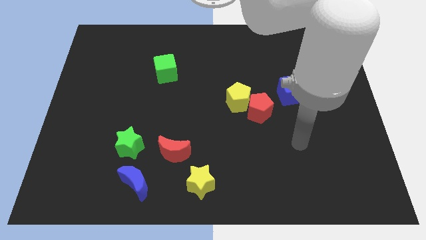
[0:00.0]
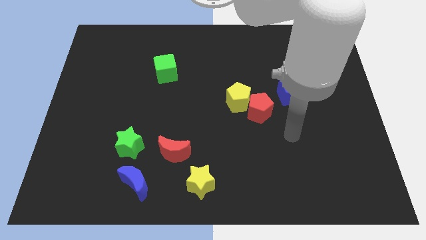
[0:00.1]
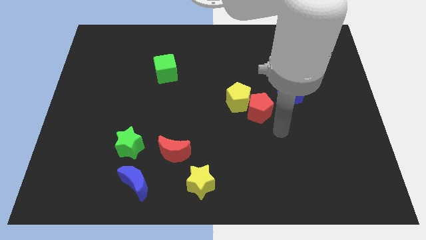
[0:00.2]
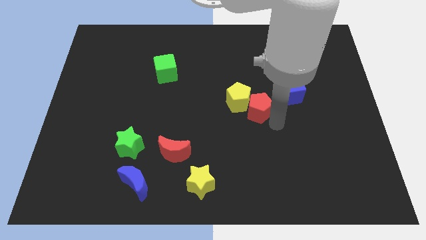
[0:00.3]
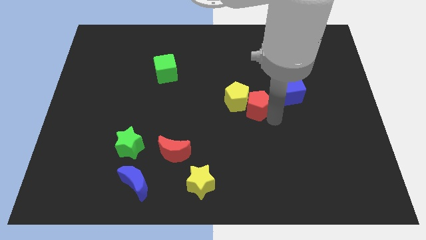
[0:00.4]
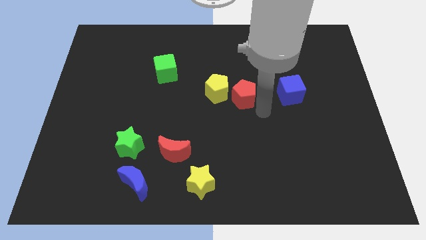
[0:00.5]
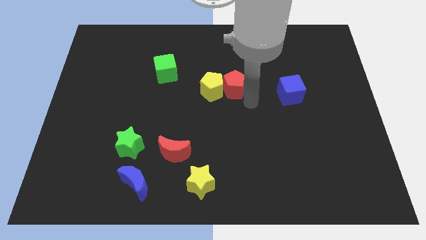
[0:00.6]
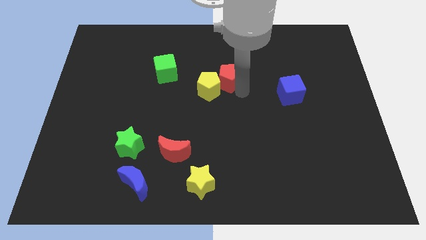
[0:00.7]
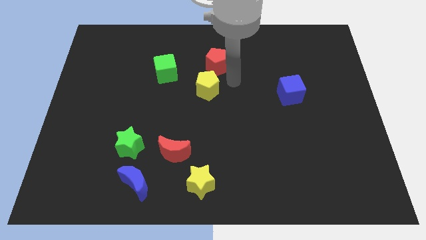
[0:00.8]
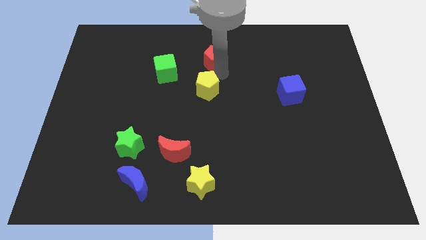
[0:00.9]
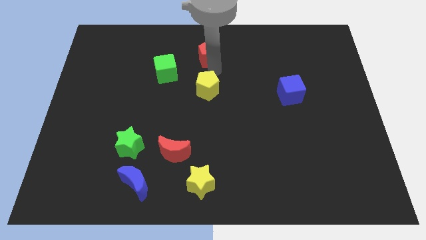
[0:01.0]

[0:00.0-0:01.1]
separate the yellow pentagon from the red pentagon

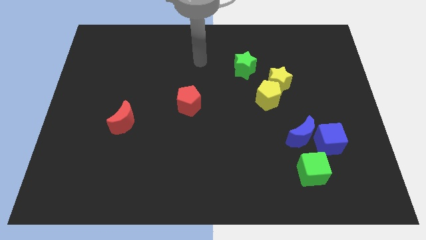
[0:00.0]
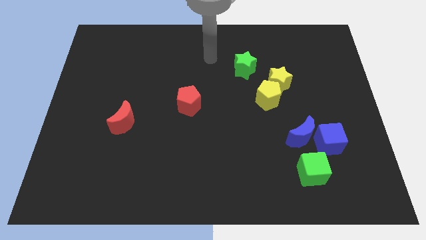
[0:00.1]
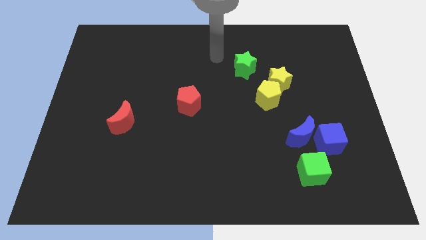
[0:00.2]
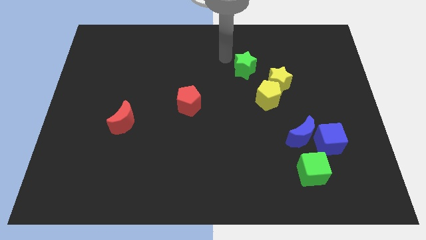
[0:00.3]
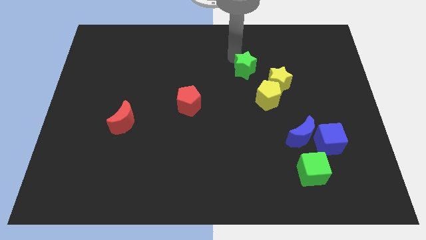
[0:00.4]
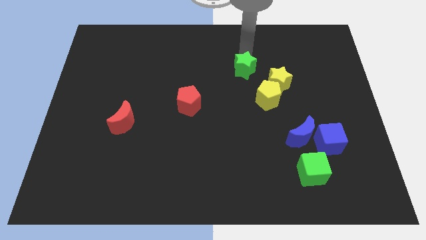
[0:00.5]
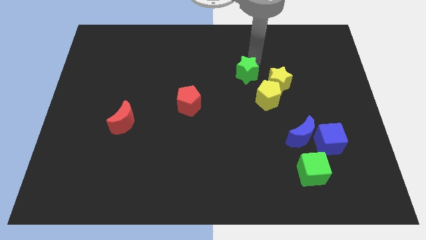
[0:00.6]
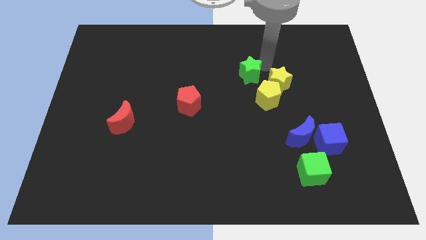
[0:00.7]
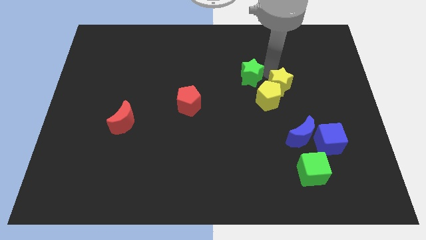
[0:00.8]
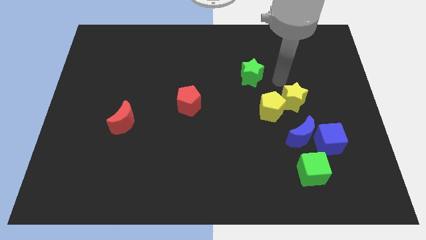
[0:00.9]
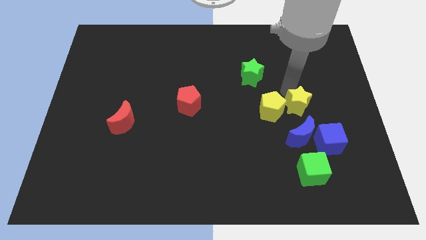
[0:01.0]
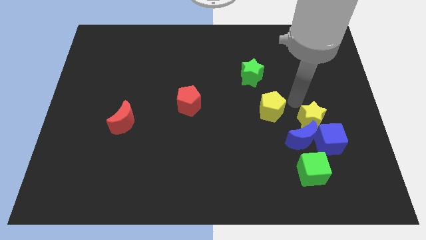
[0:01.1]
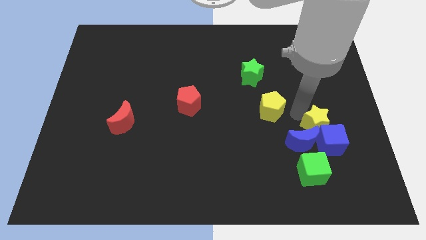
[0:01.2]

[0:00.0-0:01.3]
pull the yellow pentagon apart from the yellow star

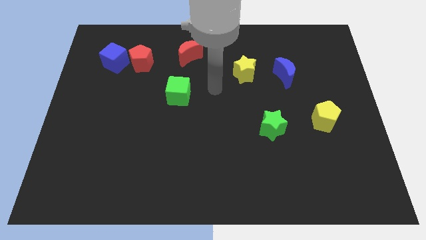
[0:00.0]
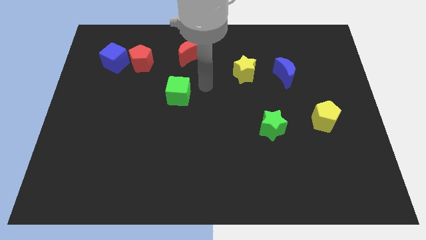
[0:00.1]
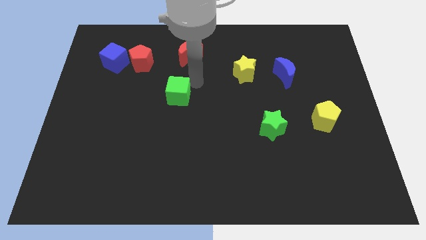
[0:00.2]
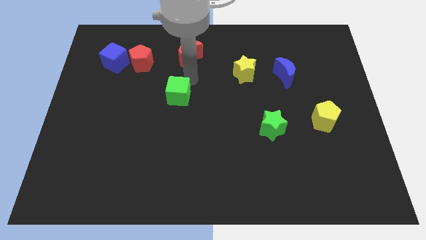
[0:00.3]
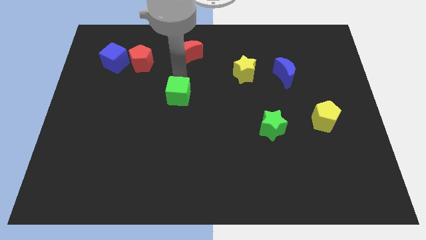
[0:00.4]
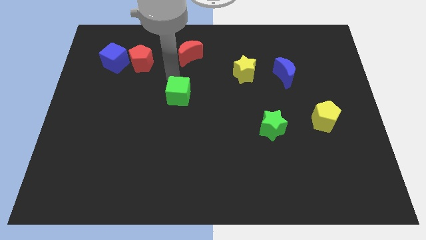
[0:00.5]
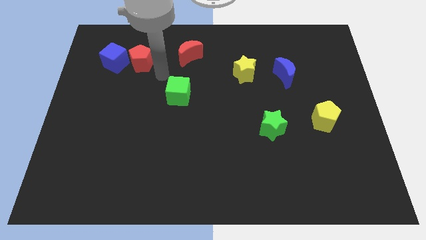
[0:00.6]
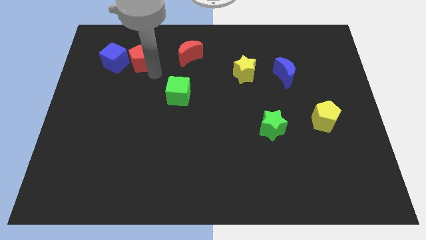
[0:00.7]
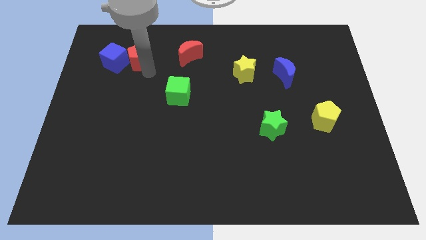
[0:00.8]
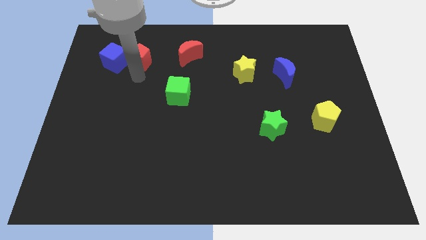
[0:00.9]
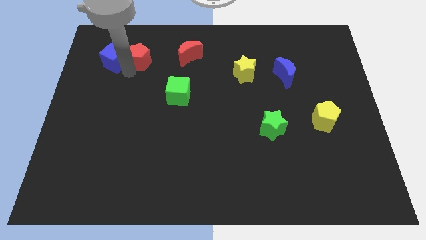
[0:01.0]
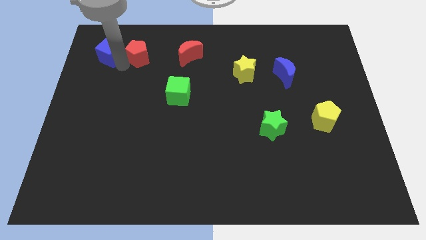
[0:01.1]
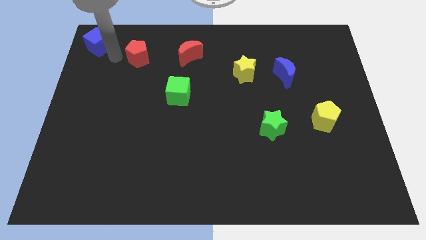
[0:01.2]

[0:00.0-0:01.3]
pull the red pentagon apart from the blue cube

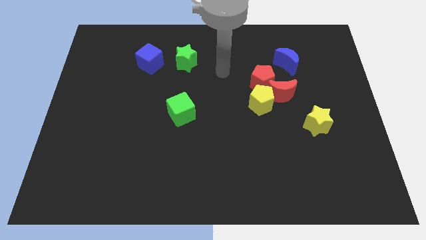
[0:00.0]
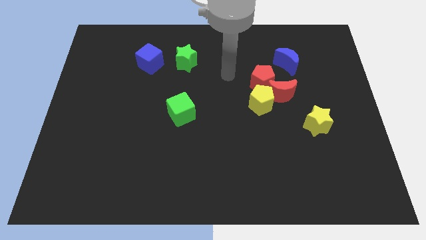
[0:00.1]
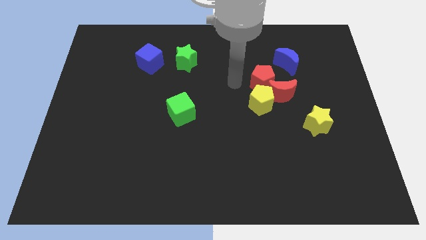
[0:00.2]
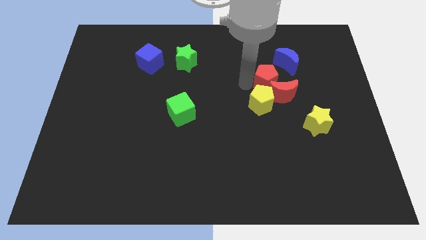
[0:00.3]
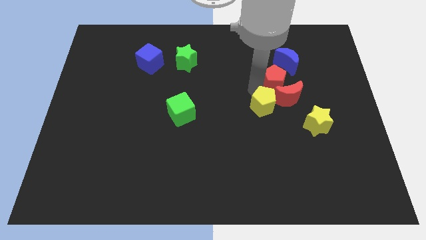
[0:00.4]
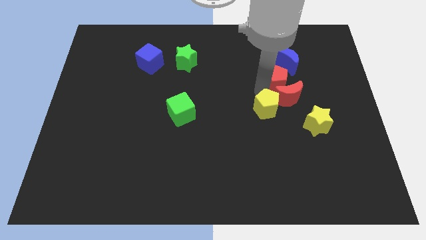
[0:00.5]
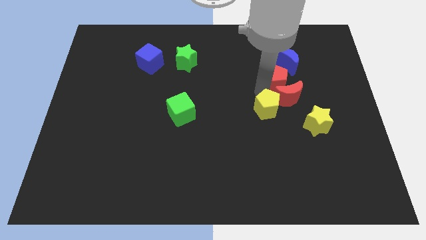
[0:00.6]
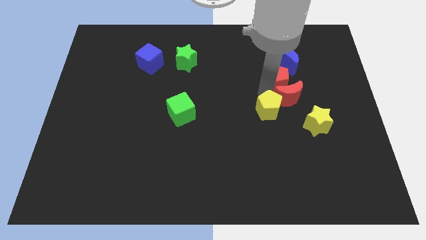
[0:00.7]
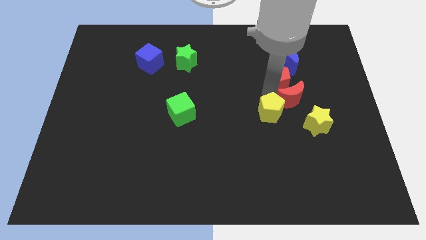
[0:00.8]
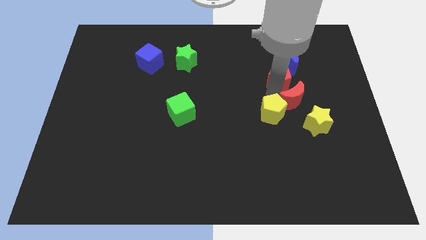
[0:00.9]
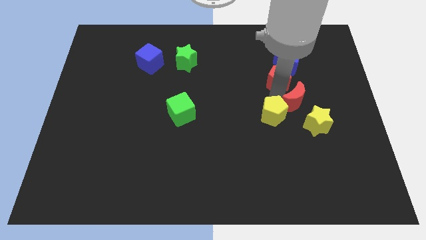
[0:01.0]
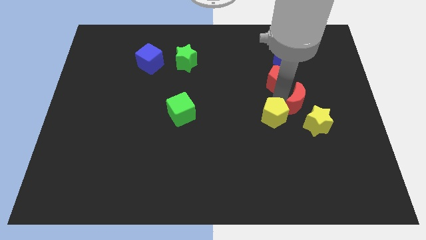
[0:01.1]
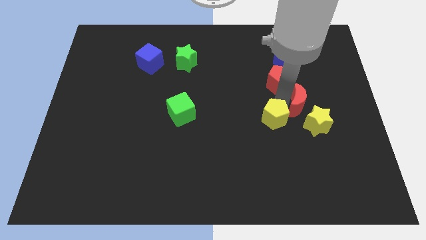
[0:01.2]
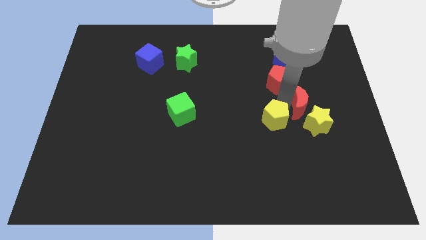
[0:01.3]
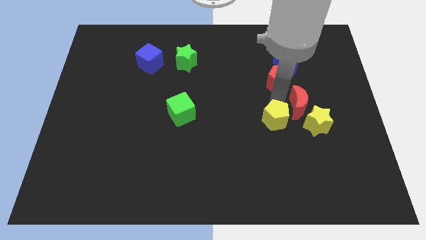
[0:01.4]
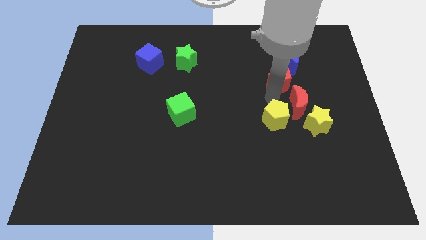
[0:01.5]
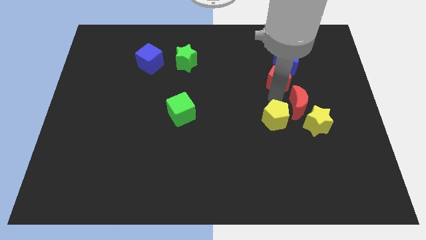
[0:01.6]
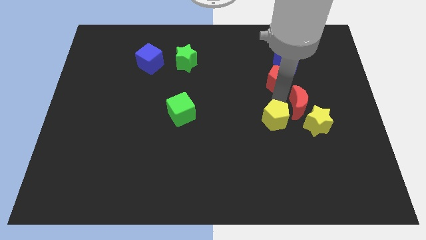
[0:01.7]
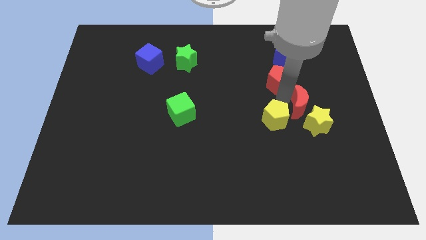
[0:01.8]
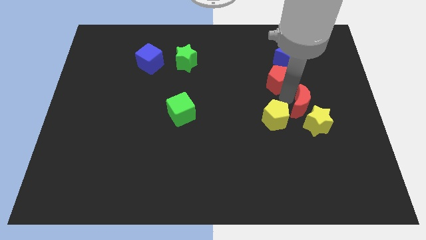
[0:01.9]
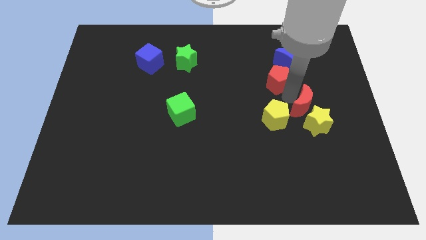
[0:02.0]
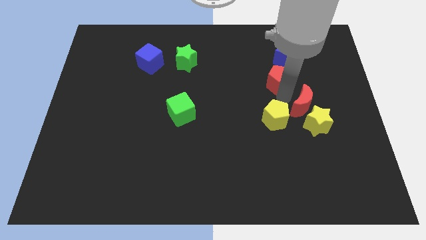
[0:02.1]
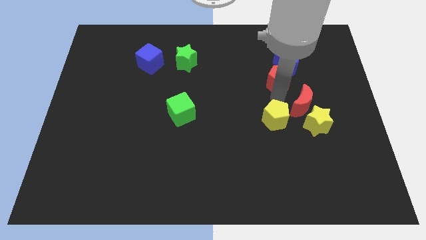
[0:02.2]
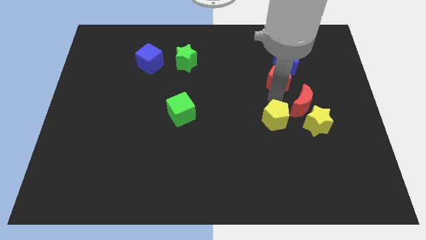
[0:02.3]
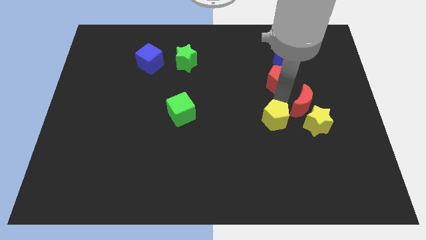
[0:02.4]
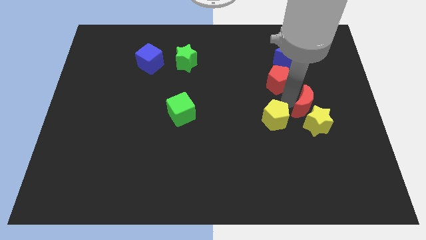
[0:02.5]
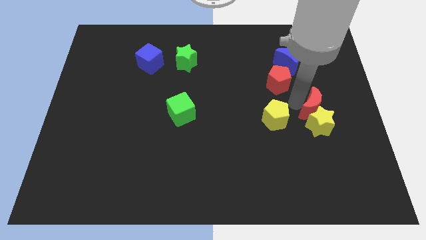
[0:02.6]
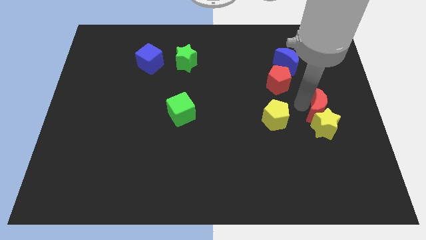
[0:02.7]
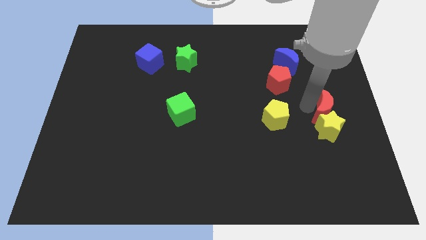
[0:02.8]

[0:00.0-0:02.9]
move the red moon away from the red pentagon and yellow pentagon

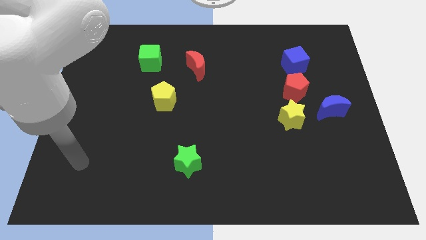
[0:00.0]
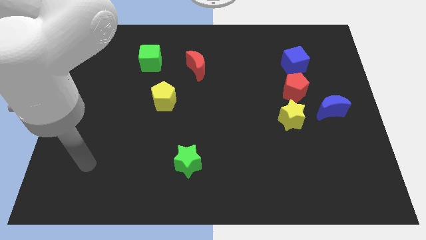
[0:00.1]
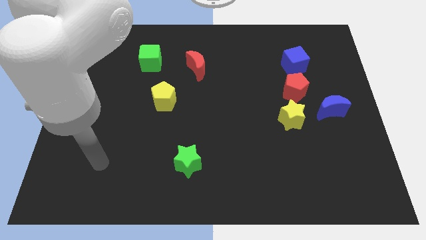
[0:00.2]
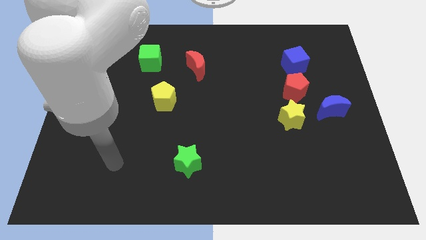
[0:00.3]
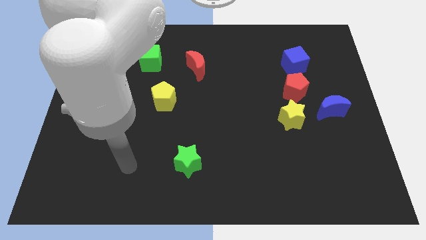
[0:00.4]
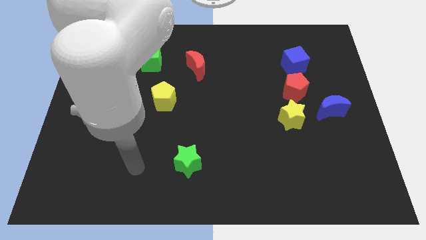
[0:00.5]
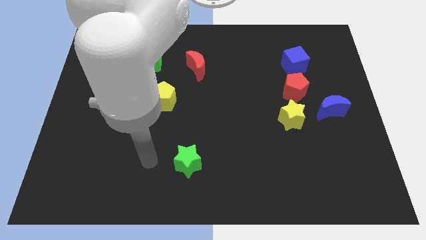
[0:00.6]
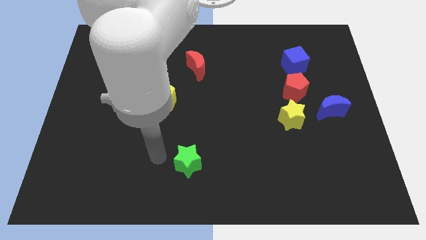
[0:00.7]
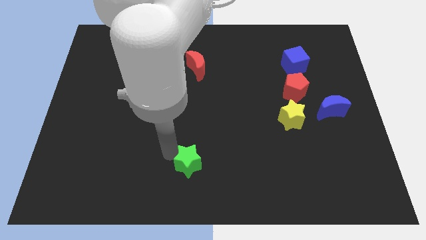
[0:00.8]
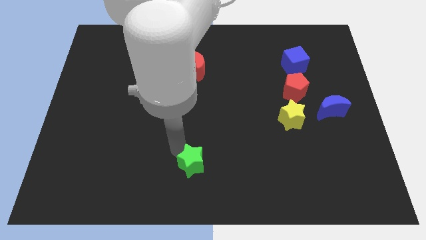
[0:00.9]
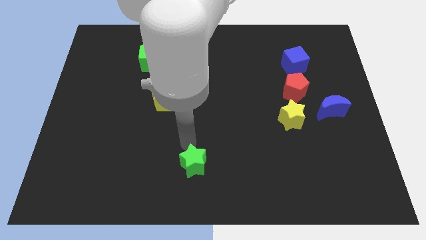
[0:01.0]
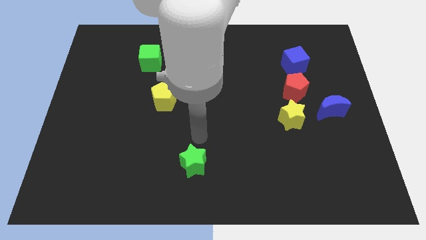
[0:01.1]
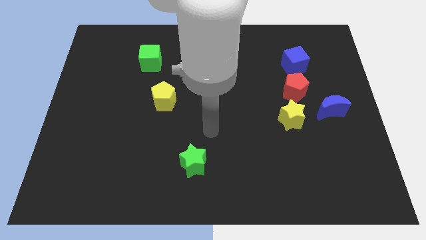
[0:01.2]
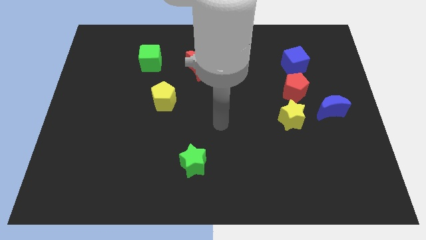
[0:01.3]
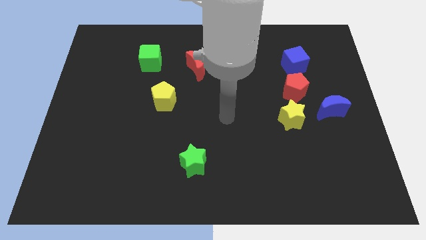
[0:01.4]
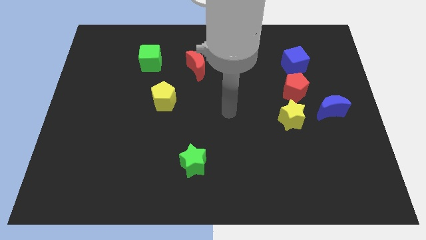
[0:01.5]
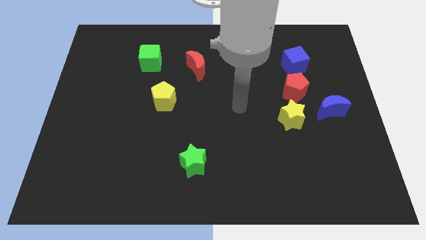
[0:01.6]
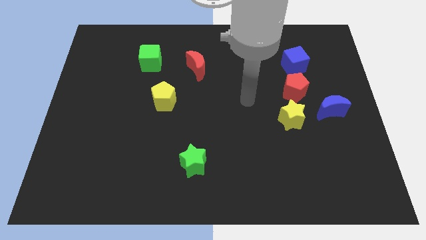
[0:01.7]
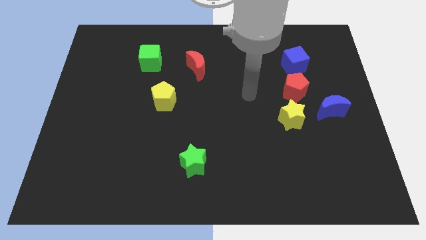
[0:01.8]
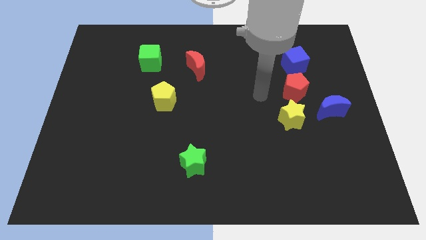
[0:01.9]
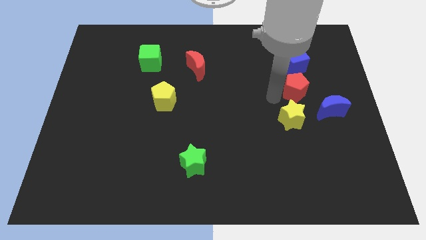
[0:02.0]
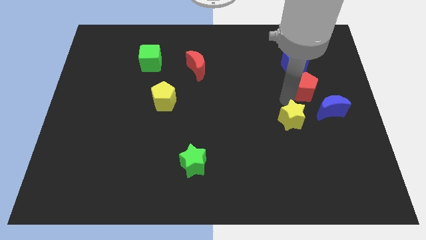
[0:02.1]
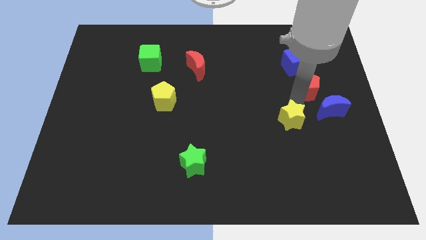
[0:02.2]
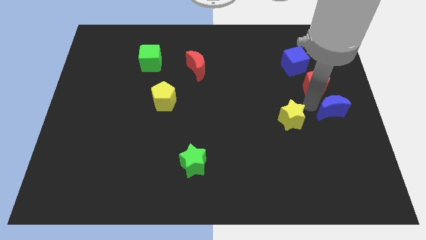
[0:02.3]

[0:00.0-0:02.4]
move the yellow star away from the red pentagon and blue moon

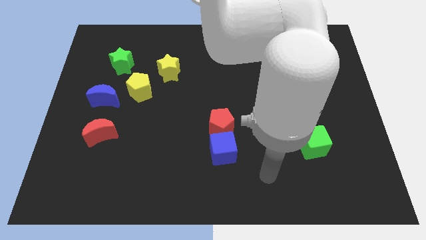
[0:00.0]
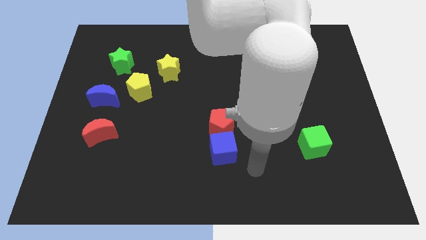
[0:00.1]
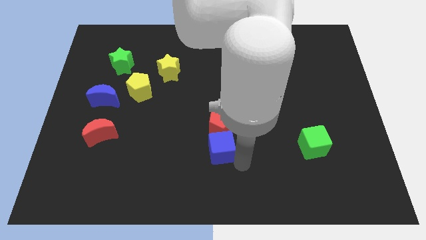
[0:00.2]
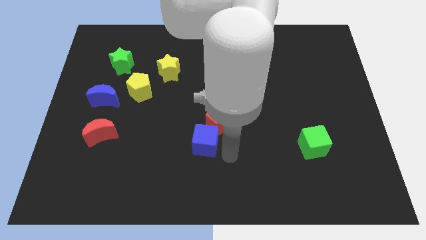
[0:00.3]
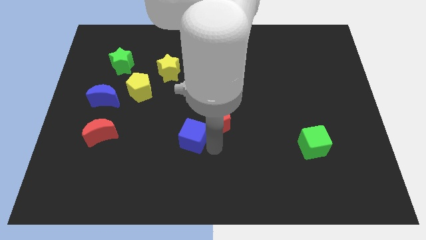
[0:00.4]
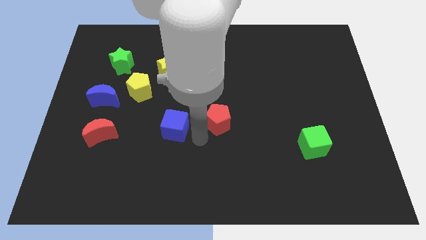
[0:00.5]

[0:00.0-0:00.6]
separate the red pentagon from the blue cube
